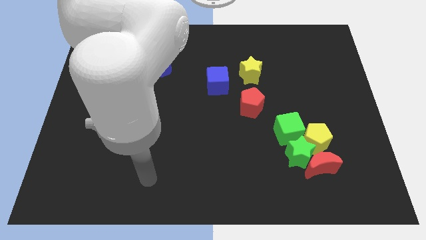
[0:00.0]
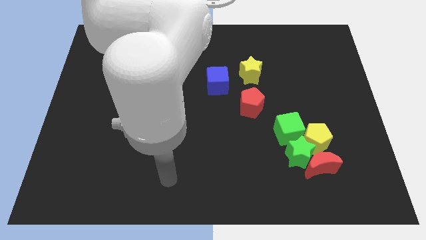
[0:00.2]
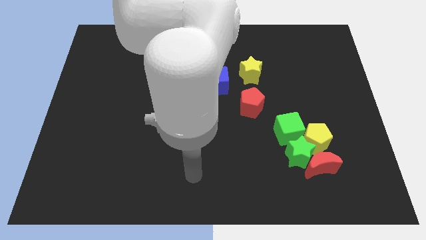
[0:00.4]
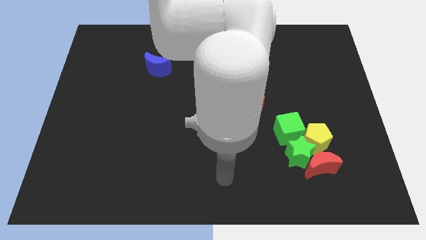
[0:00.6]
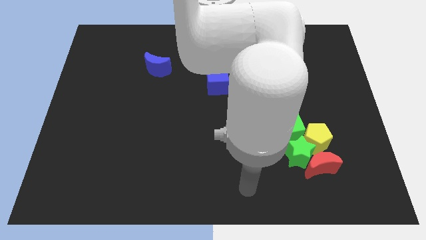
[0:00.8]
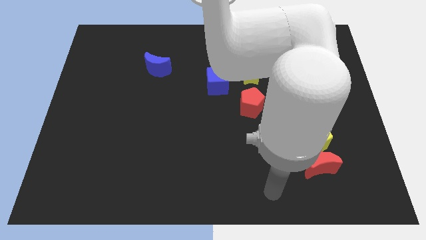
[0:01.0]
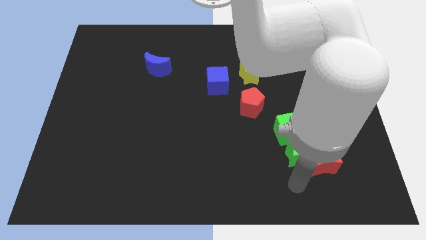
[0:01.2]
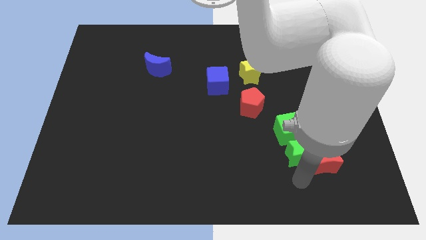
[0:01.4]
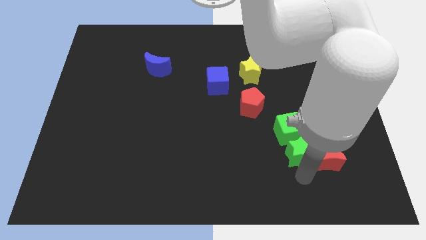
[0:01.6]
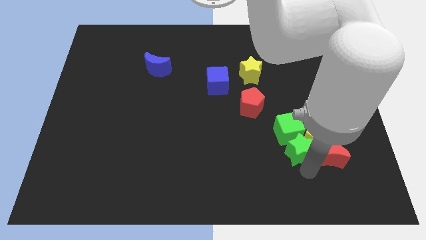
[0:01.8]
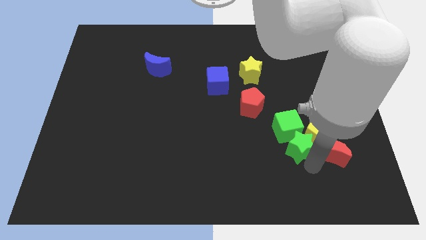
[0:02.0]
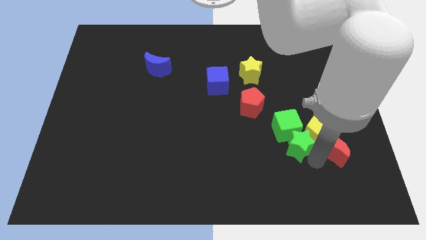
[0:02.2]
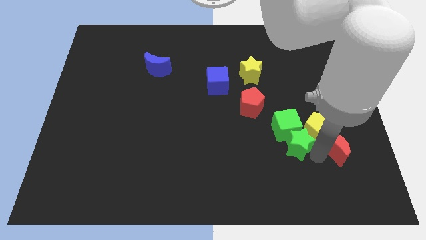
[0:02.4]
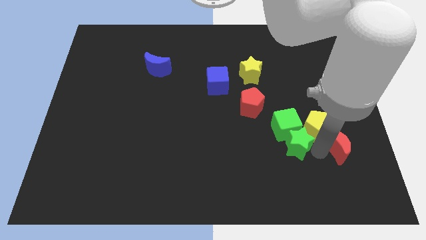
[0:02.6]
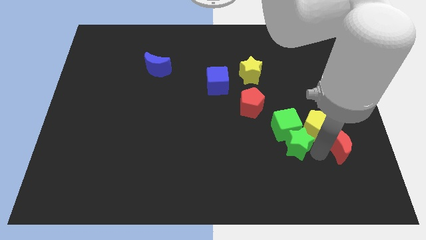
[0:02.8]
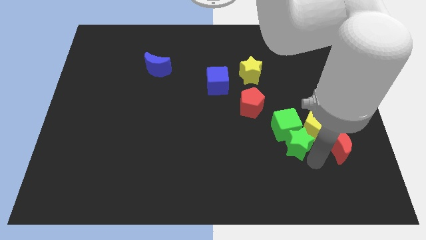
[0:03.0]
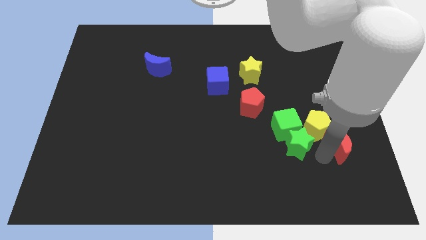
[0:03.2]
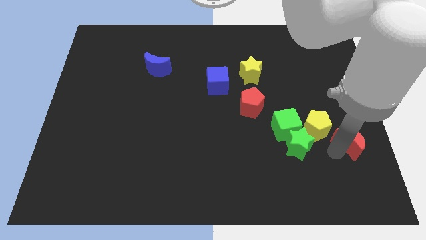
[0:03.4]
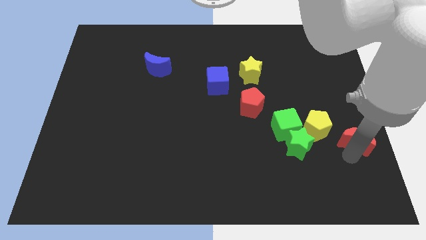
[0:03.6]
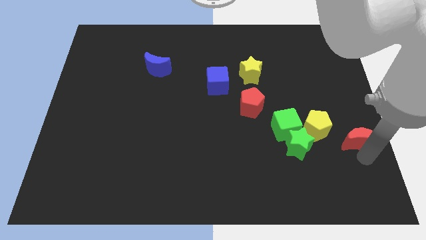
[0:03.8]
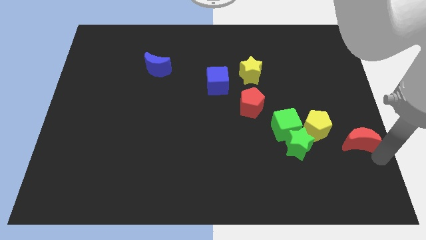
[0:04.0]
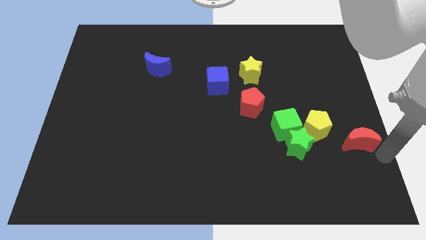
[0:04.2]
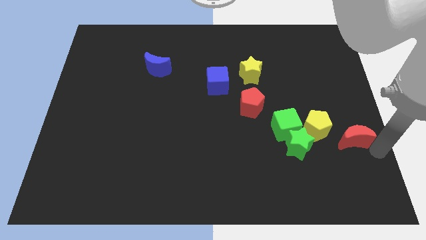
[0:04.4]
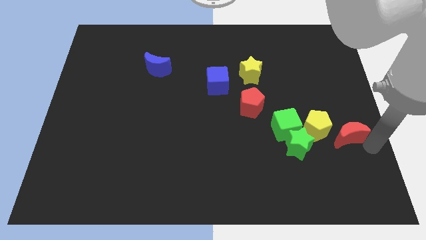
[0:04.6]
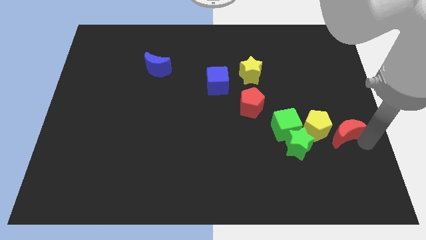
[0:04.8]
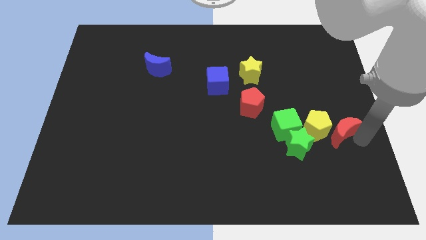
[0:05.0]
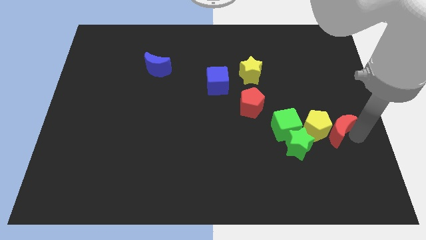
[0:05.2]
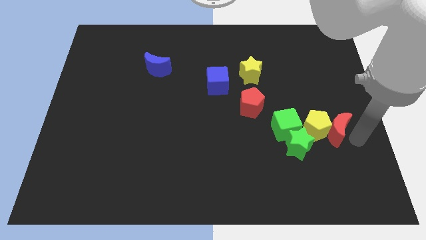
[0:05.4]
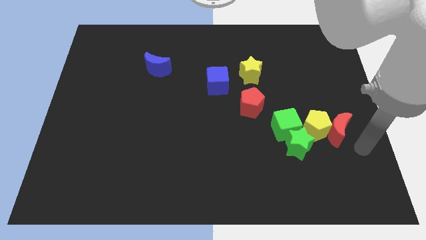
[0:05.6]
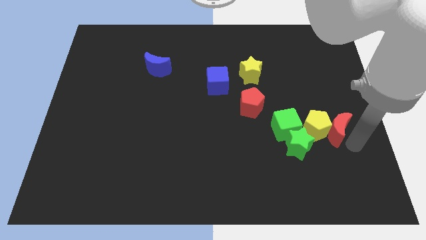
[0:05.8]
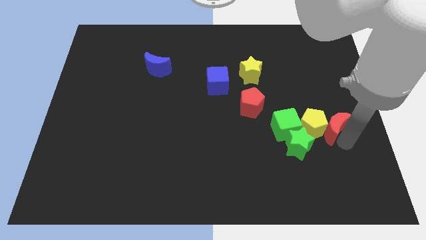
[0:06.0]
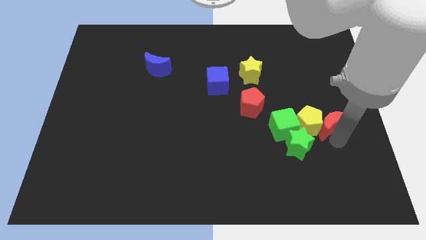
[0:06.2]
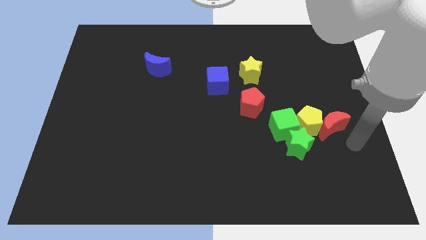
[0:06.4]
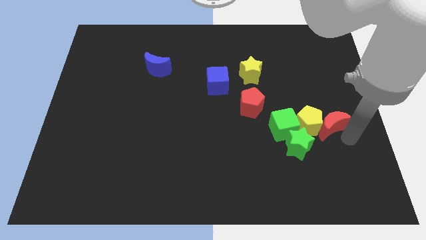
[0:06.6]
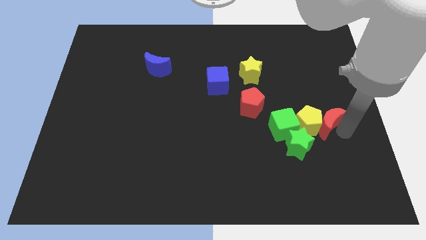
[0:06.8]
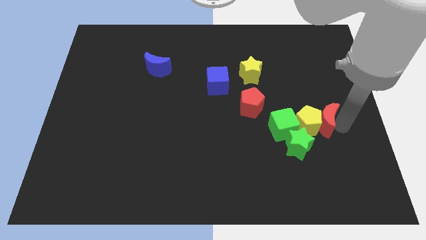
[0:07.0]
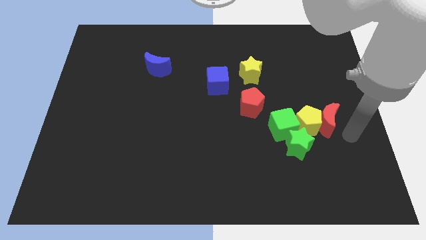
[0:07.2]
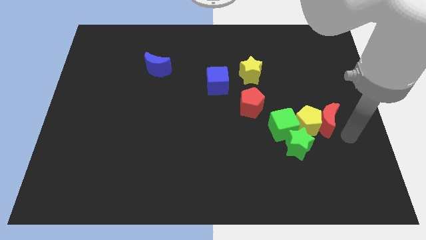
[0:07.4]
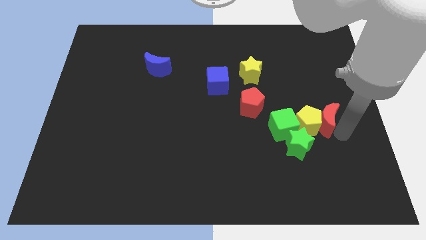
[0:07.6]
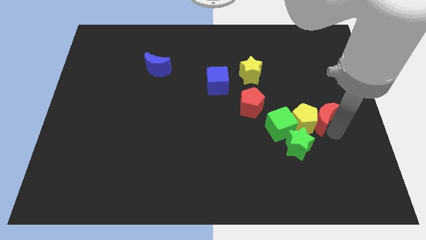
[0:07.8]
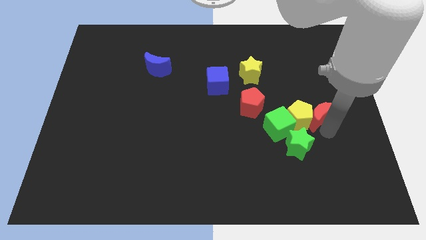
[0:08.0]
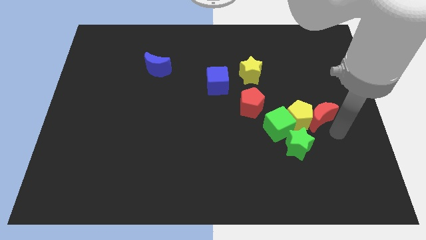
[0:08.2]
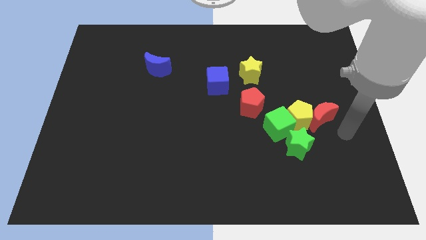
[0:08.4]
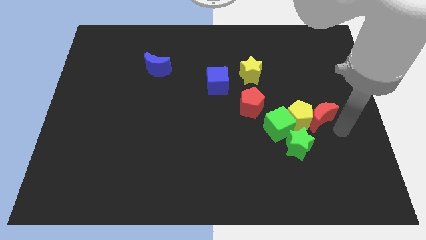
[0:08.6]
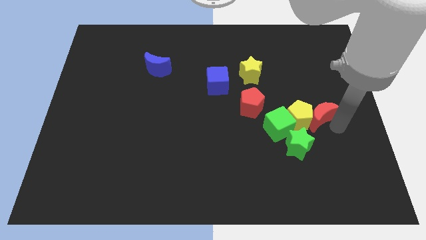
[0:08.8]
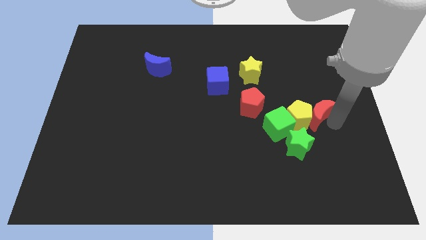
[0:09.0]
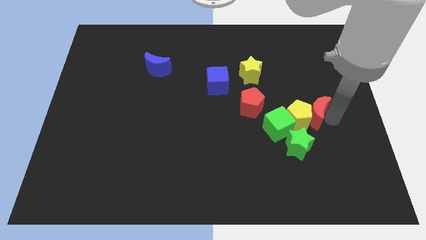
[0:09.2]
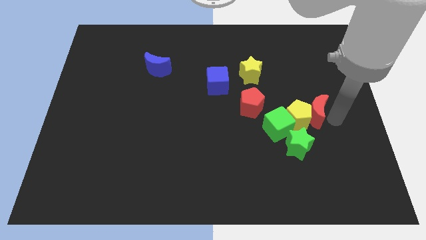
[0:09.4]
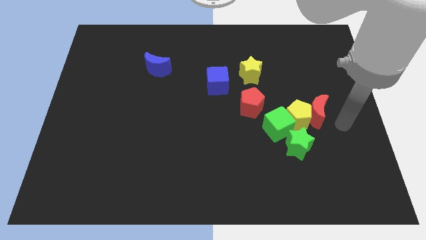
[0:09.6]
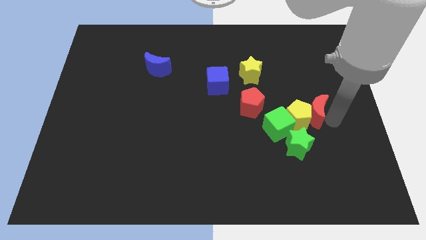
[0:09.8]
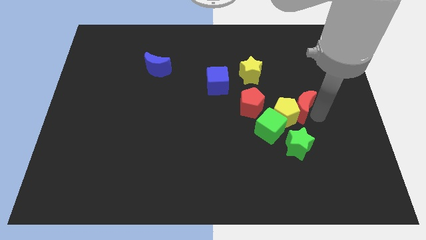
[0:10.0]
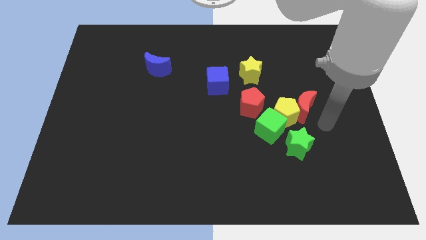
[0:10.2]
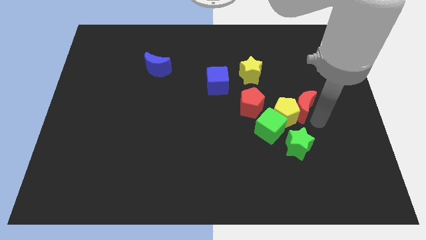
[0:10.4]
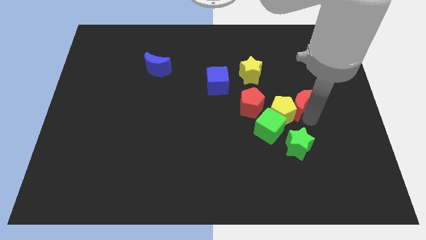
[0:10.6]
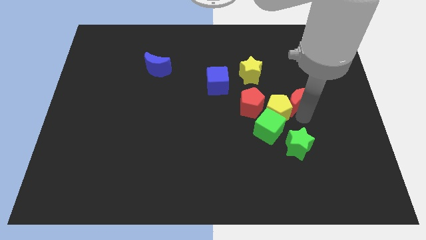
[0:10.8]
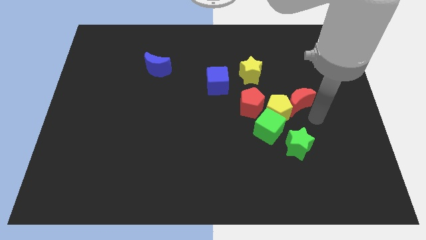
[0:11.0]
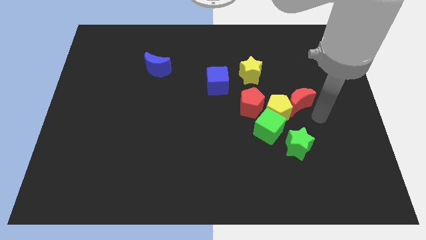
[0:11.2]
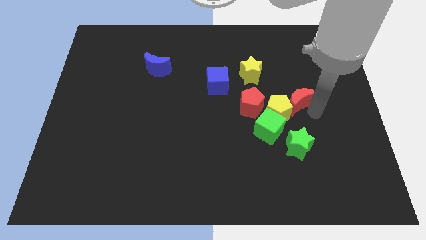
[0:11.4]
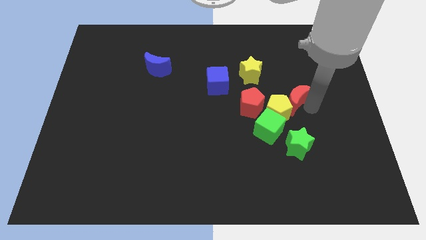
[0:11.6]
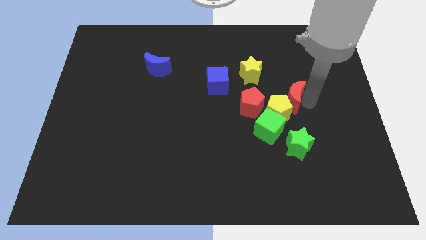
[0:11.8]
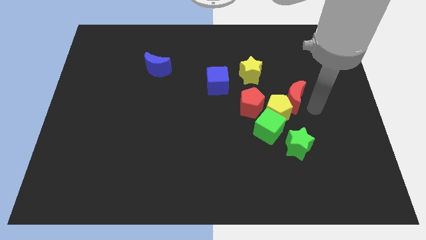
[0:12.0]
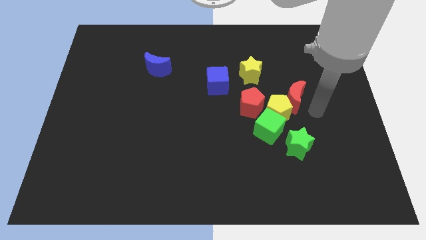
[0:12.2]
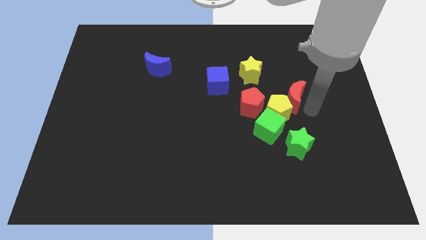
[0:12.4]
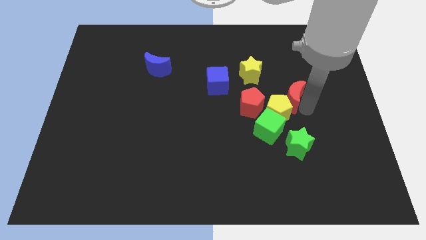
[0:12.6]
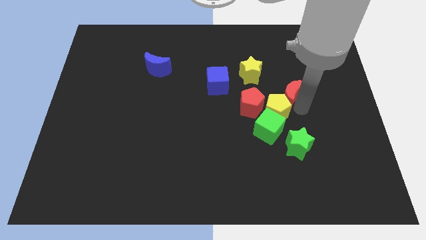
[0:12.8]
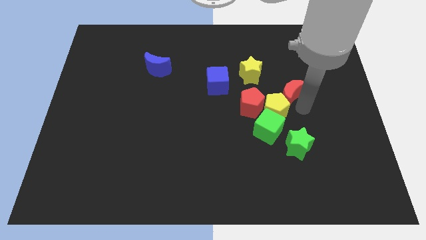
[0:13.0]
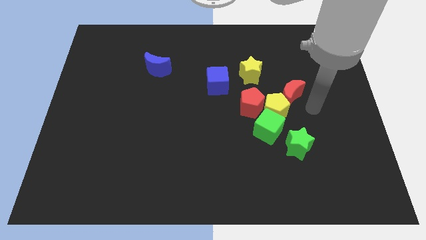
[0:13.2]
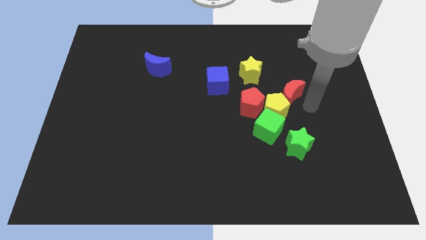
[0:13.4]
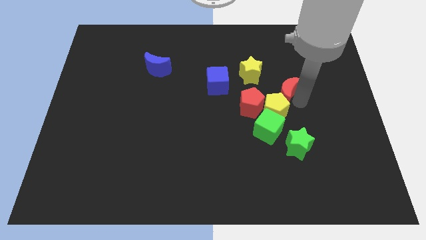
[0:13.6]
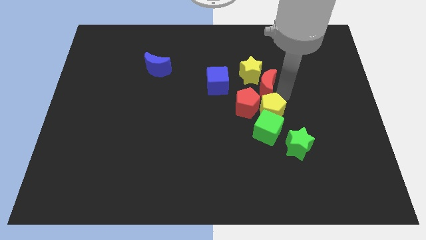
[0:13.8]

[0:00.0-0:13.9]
slide the red moon to the yellow star
